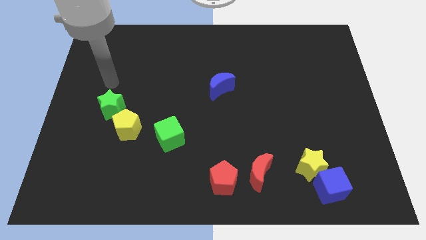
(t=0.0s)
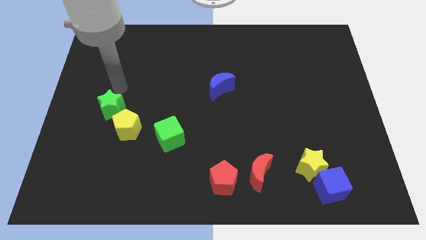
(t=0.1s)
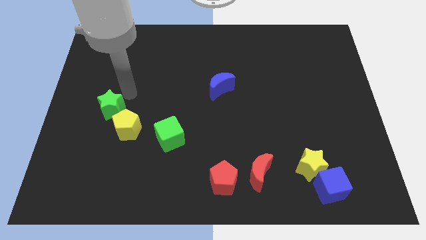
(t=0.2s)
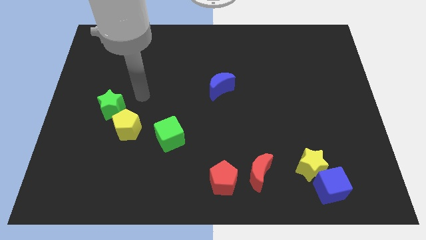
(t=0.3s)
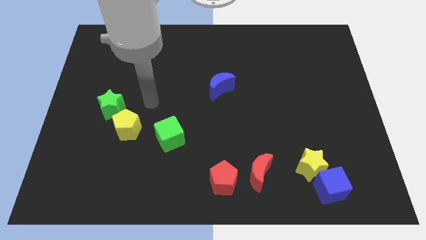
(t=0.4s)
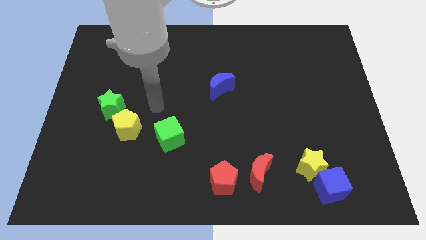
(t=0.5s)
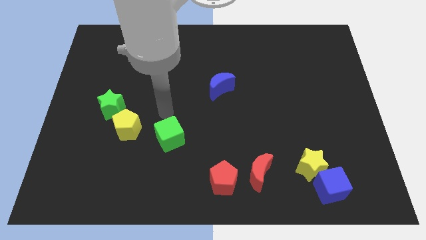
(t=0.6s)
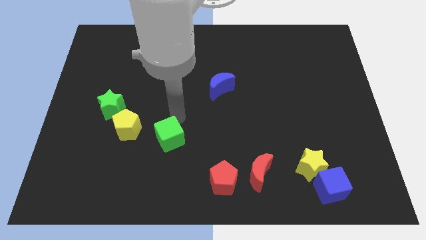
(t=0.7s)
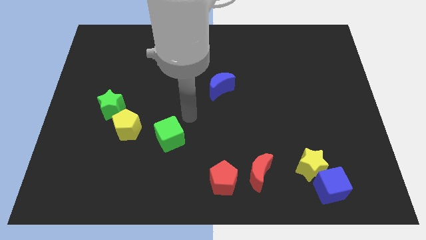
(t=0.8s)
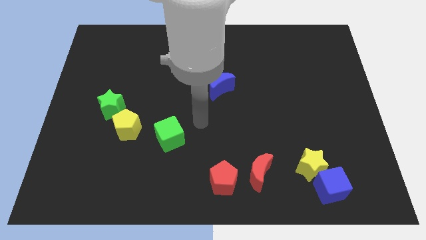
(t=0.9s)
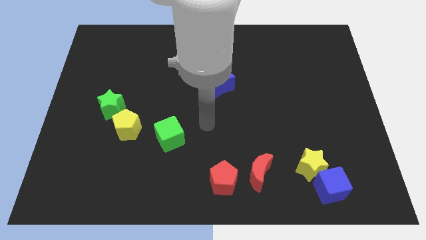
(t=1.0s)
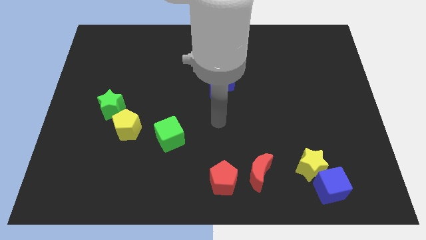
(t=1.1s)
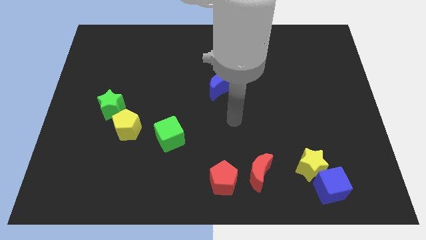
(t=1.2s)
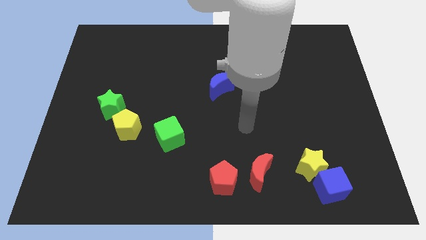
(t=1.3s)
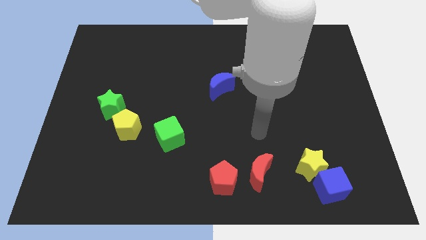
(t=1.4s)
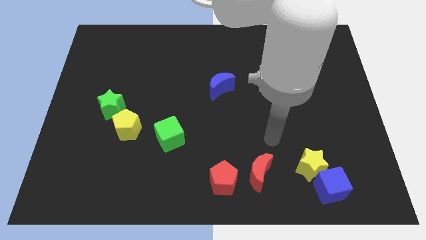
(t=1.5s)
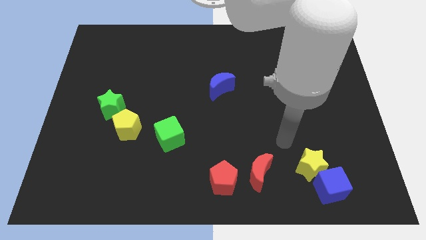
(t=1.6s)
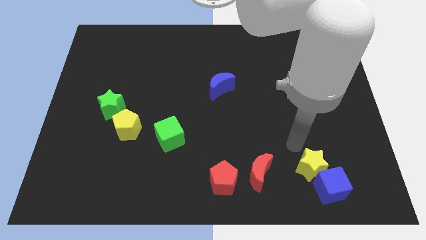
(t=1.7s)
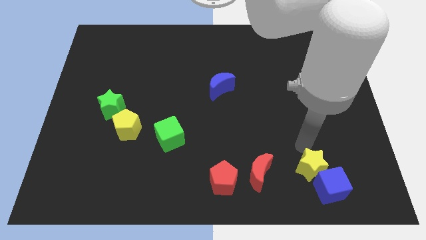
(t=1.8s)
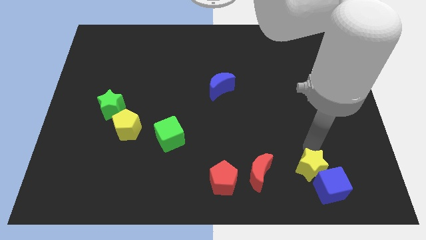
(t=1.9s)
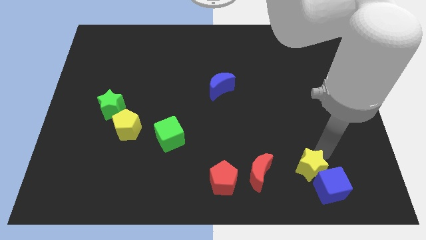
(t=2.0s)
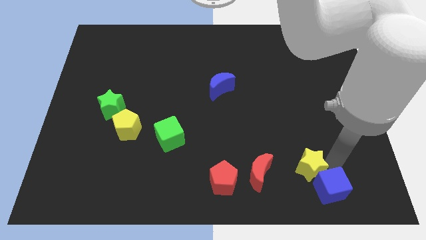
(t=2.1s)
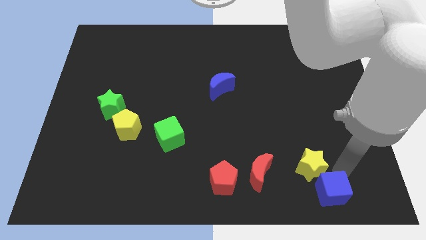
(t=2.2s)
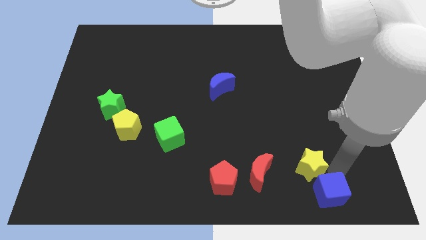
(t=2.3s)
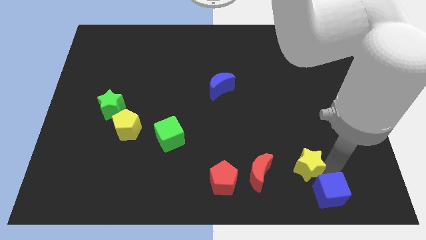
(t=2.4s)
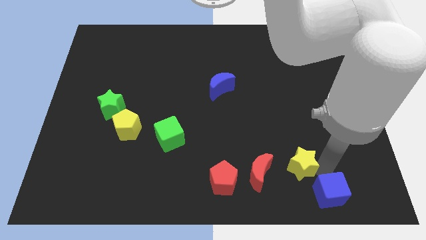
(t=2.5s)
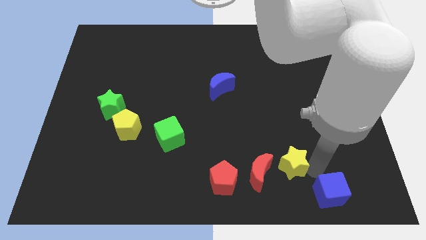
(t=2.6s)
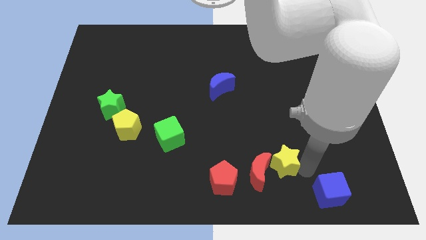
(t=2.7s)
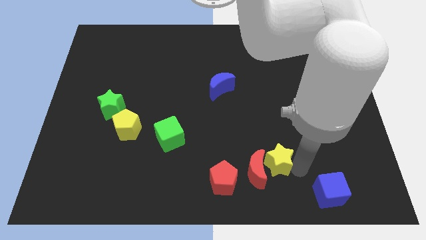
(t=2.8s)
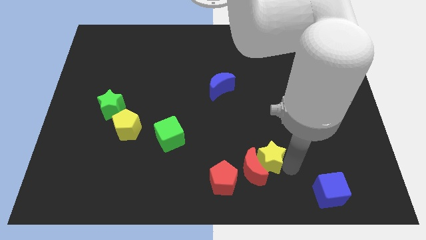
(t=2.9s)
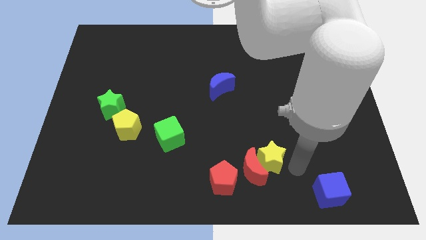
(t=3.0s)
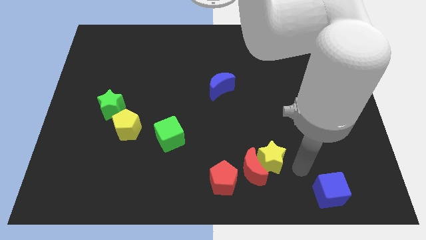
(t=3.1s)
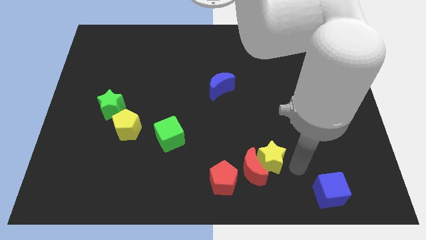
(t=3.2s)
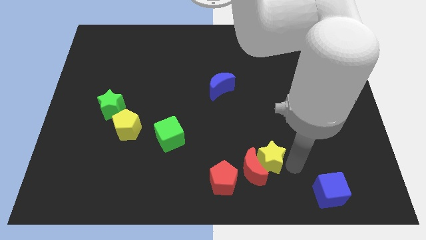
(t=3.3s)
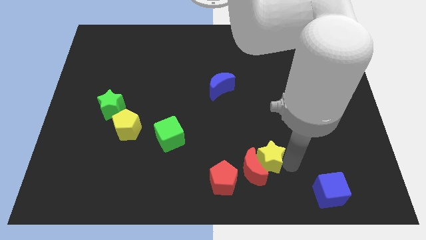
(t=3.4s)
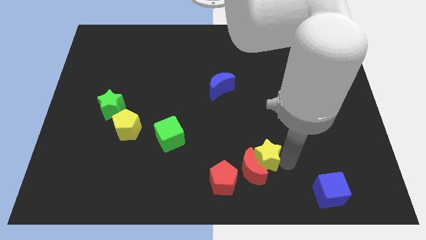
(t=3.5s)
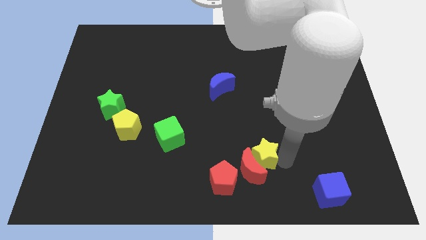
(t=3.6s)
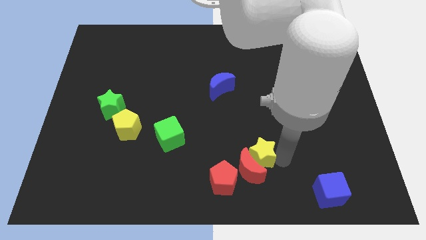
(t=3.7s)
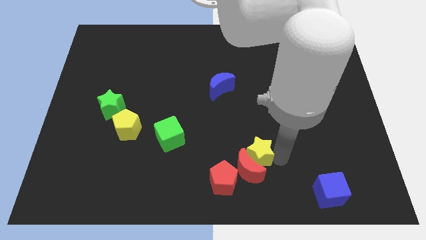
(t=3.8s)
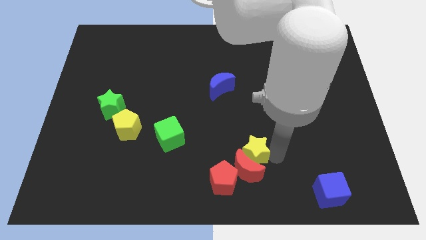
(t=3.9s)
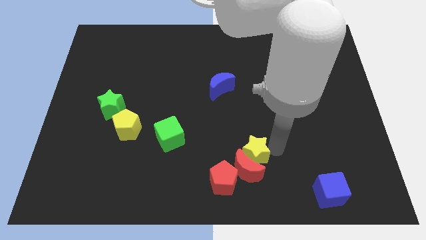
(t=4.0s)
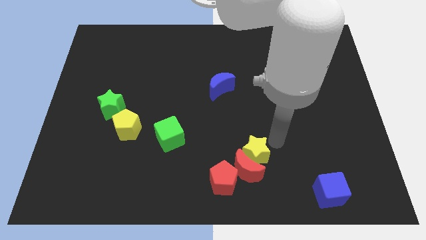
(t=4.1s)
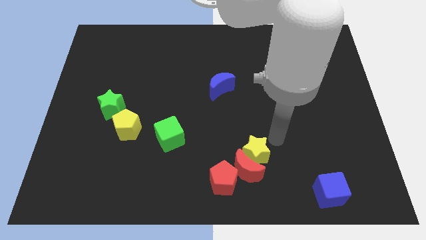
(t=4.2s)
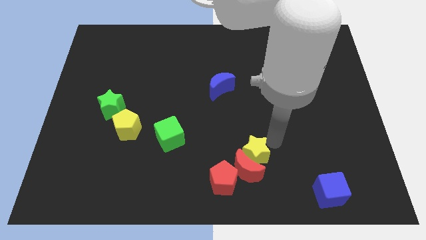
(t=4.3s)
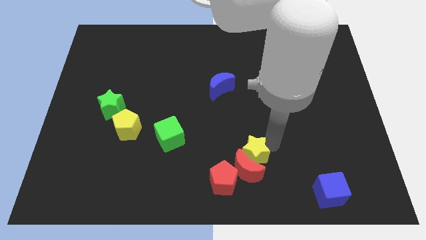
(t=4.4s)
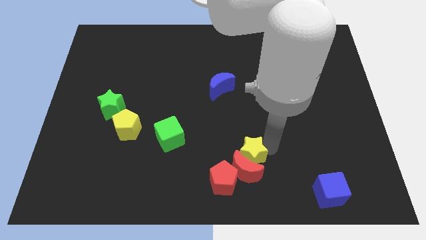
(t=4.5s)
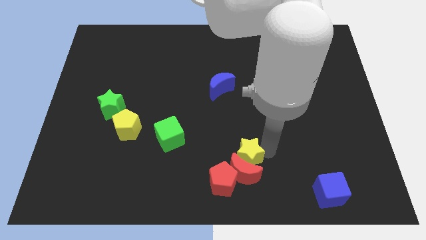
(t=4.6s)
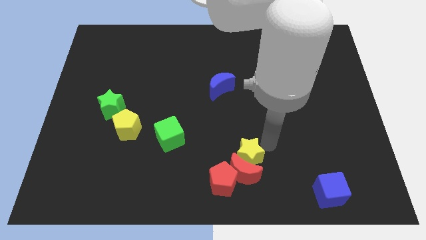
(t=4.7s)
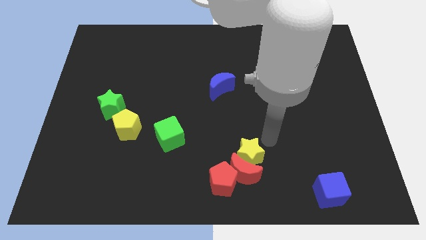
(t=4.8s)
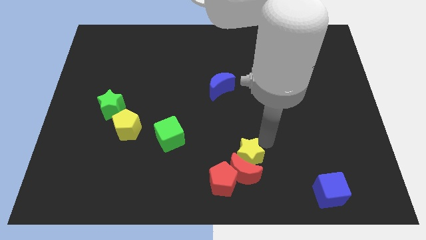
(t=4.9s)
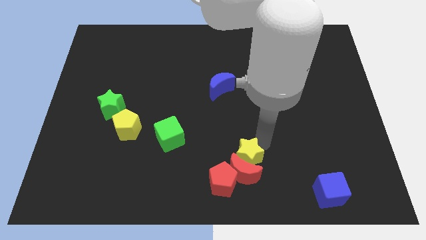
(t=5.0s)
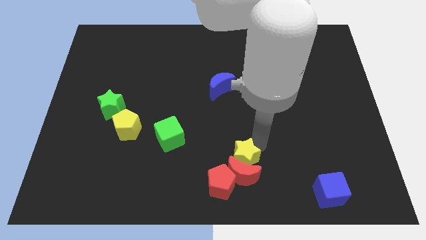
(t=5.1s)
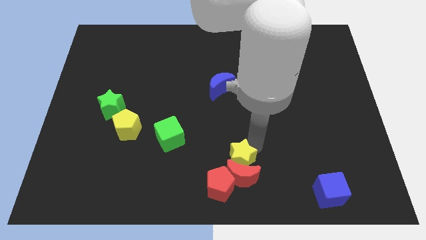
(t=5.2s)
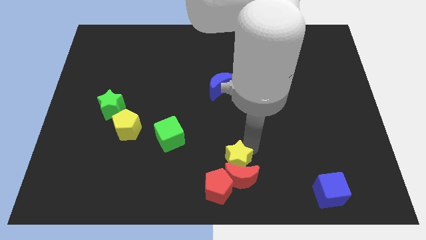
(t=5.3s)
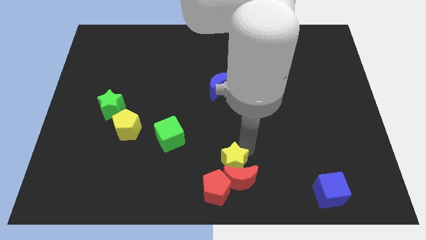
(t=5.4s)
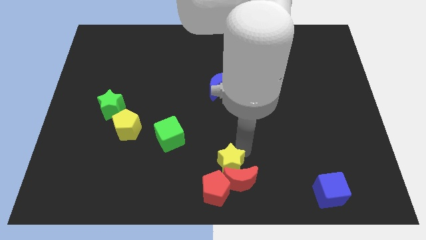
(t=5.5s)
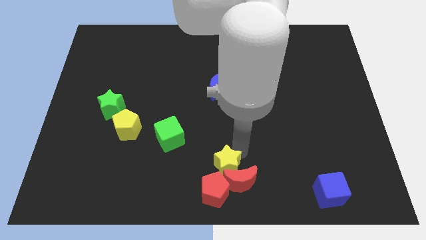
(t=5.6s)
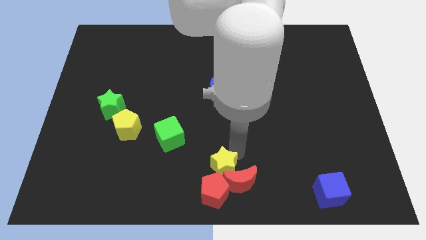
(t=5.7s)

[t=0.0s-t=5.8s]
move the yellow star close to the red pentagon

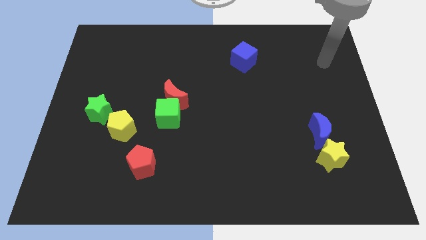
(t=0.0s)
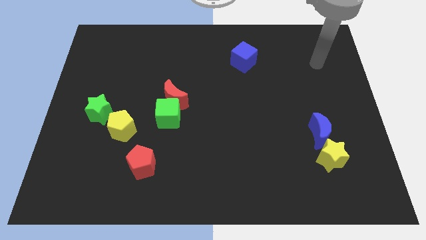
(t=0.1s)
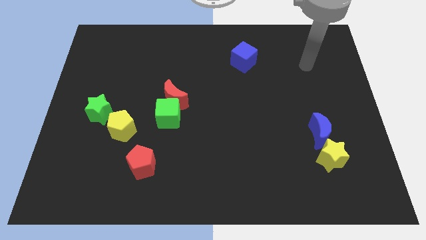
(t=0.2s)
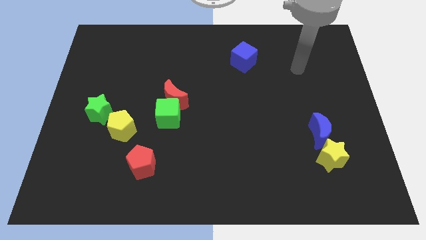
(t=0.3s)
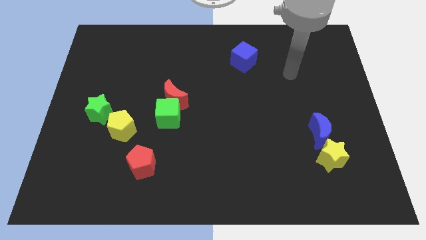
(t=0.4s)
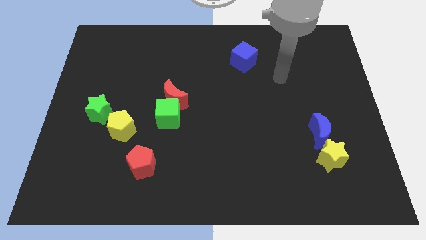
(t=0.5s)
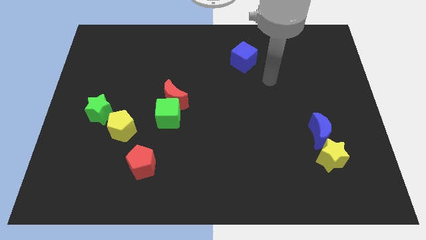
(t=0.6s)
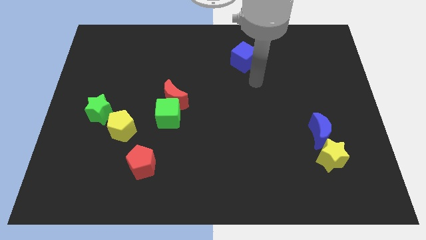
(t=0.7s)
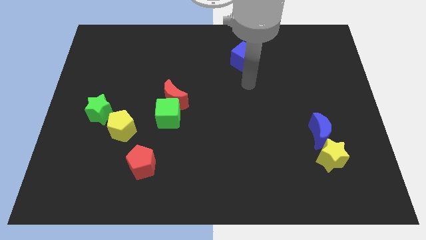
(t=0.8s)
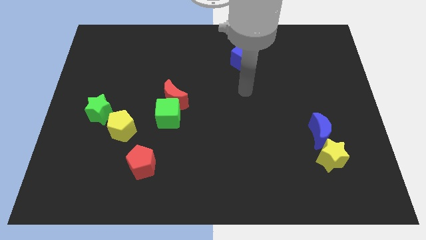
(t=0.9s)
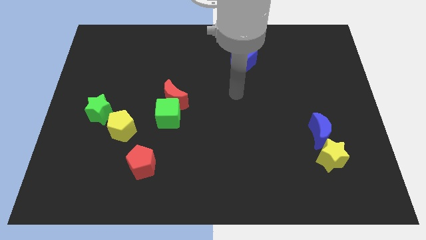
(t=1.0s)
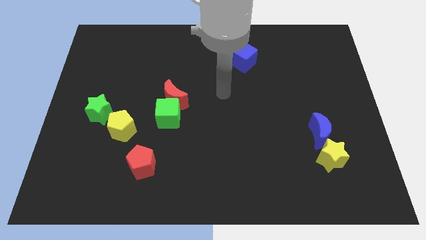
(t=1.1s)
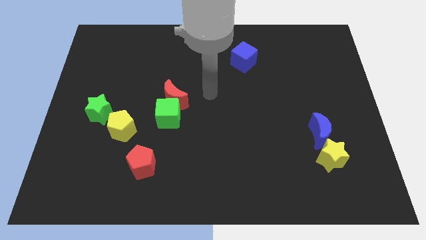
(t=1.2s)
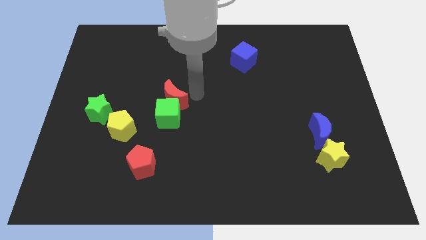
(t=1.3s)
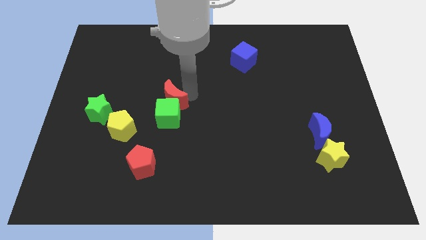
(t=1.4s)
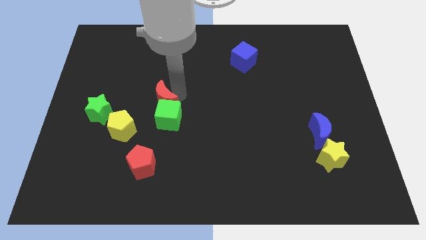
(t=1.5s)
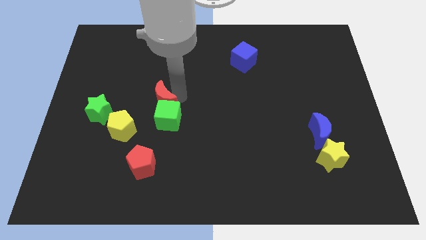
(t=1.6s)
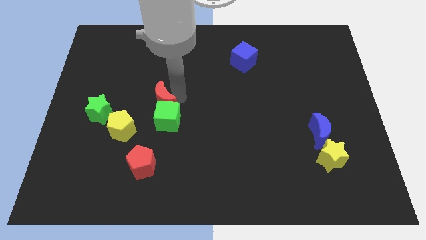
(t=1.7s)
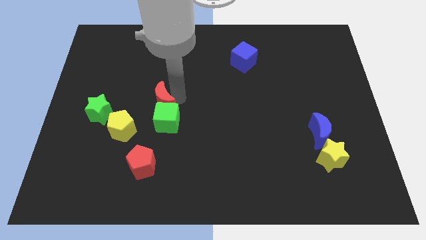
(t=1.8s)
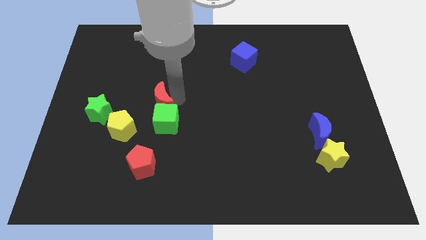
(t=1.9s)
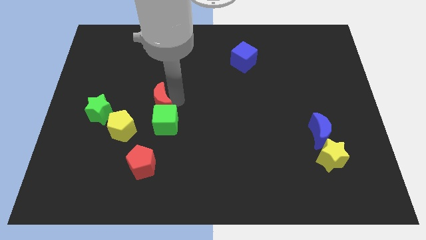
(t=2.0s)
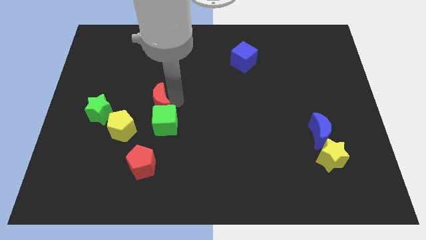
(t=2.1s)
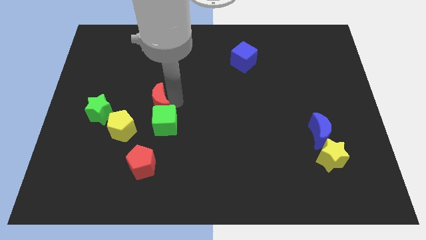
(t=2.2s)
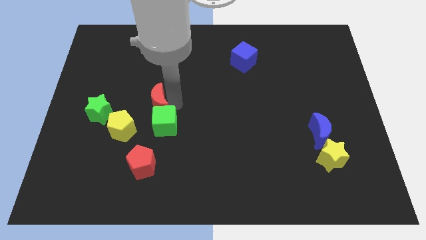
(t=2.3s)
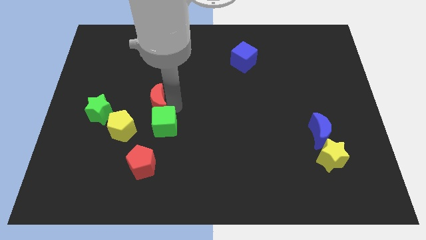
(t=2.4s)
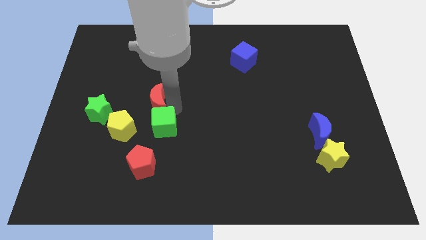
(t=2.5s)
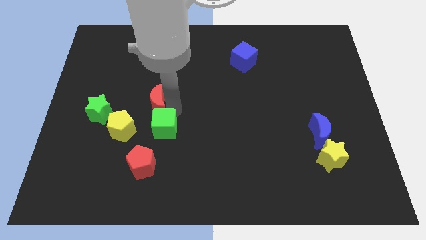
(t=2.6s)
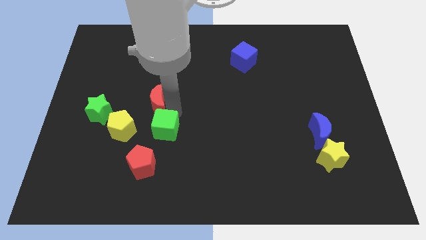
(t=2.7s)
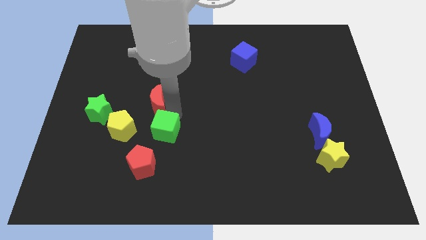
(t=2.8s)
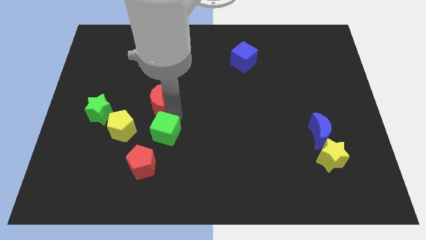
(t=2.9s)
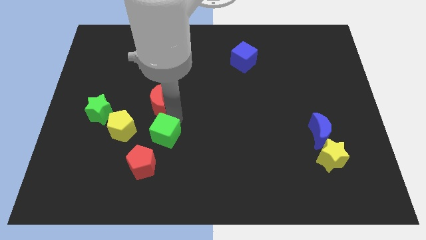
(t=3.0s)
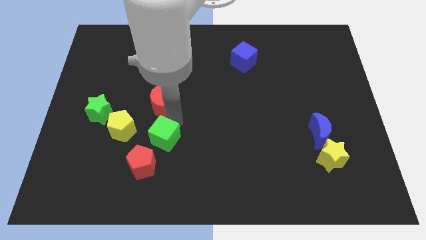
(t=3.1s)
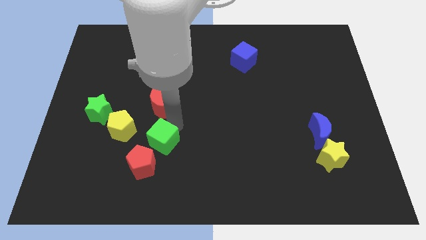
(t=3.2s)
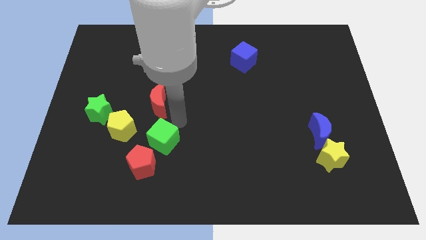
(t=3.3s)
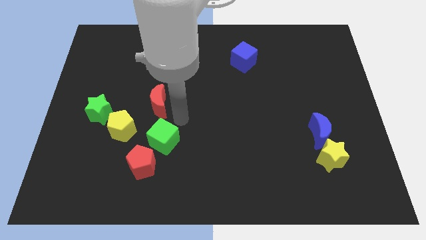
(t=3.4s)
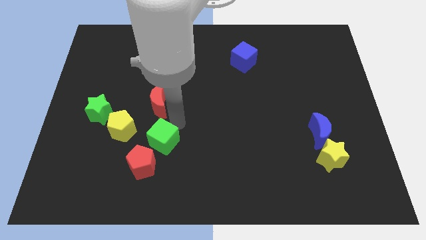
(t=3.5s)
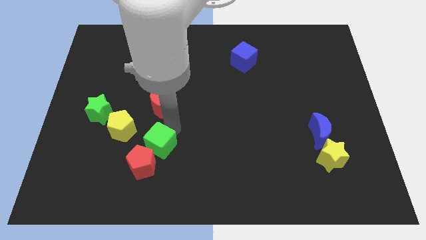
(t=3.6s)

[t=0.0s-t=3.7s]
push the green cube to the red pentagon
